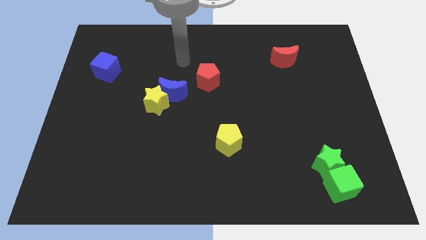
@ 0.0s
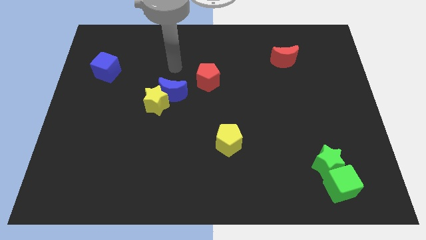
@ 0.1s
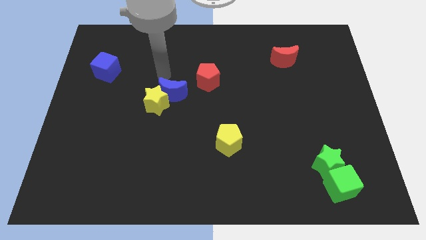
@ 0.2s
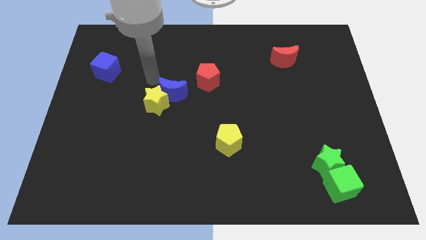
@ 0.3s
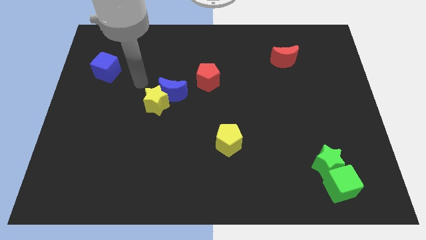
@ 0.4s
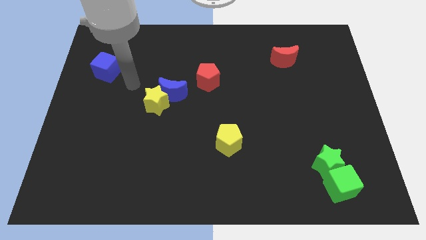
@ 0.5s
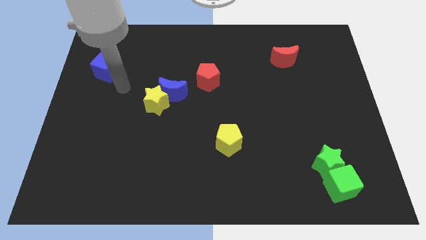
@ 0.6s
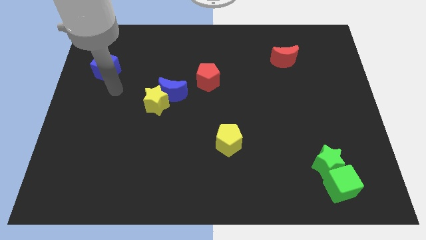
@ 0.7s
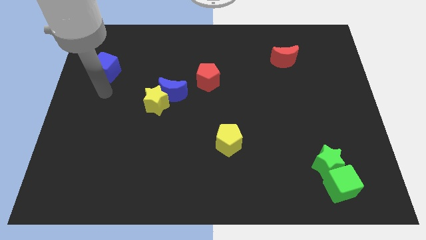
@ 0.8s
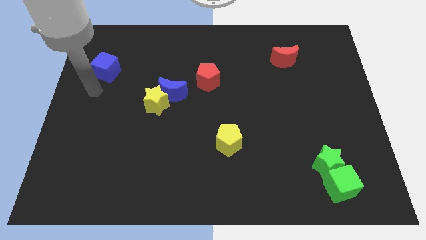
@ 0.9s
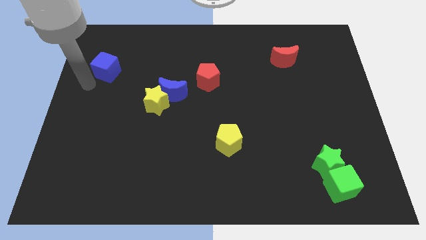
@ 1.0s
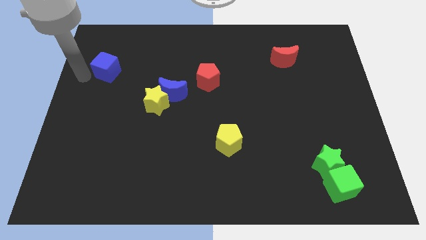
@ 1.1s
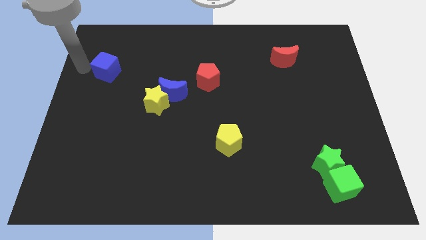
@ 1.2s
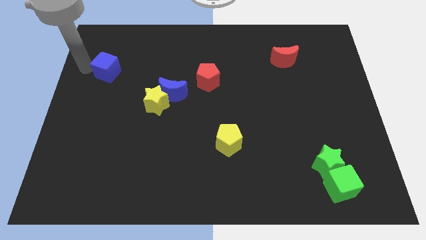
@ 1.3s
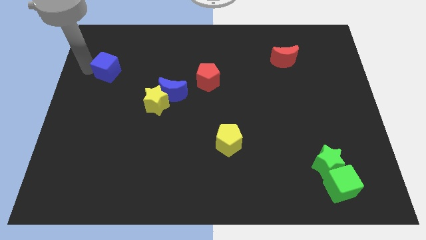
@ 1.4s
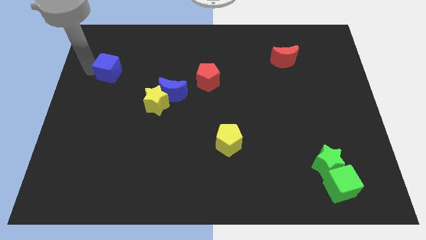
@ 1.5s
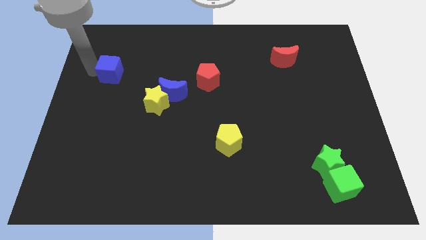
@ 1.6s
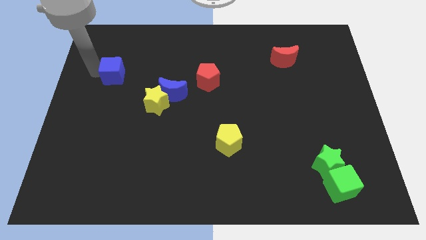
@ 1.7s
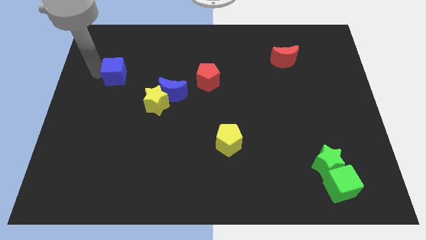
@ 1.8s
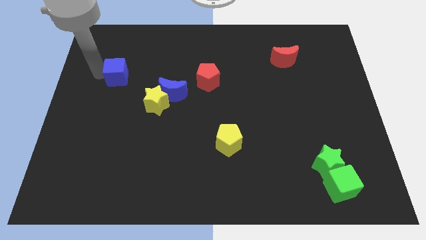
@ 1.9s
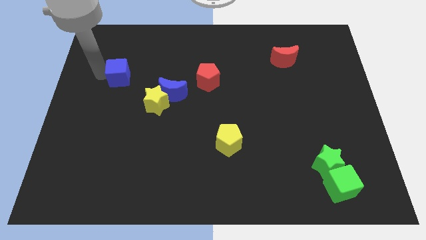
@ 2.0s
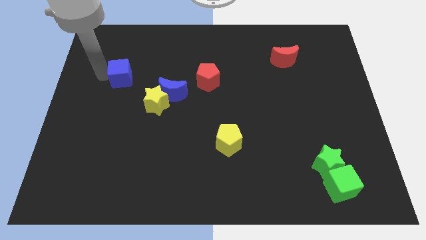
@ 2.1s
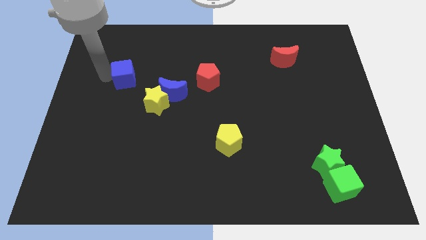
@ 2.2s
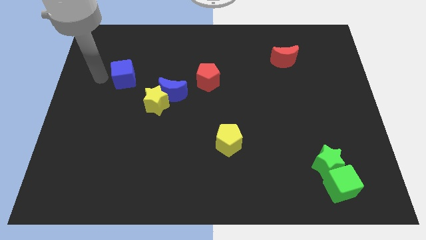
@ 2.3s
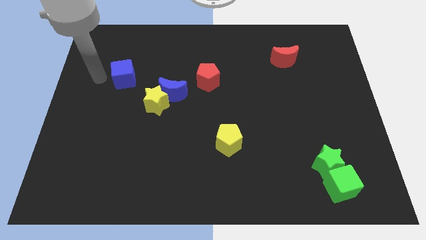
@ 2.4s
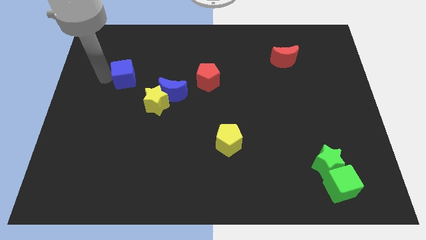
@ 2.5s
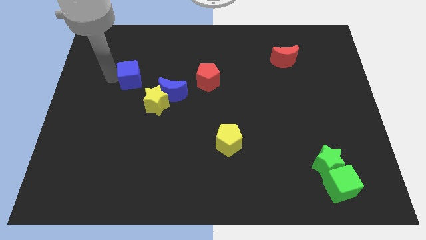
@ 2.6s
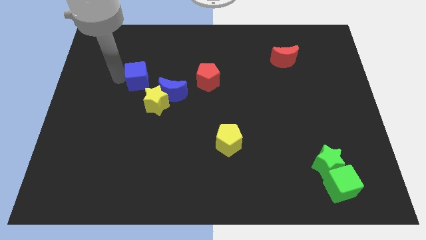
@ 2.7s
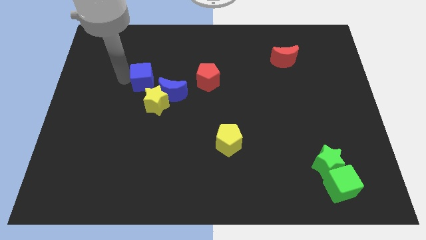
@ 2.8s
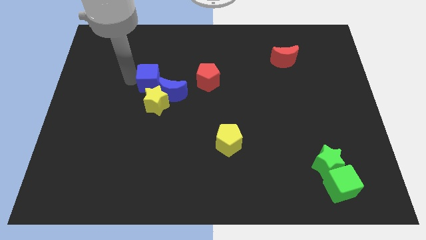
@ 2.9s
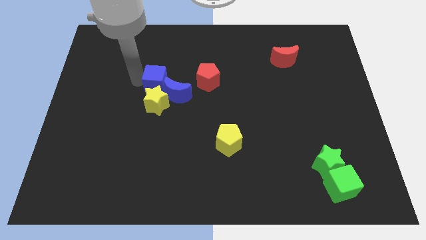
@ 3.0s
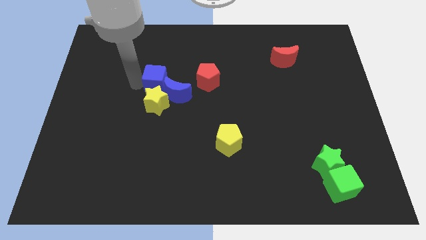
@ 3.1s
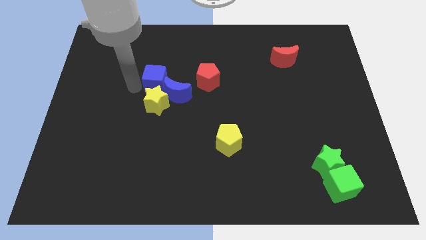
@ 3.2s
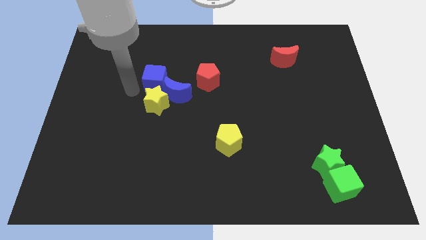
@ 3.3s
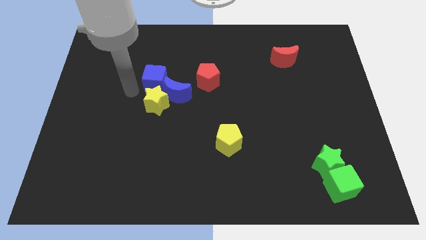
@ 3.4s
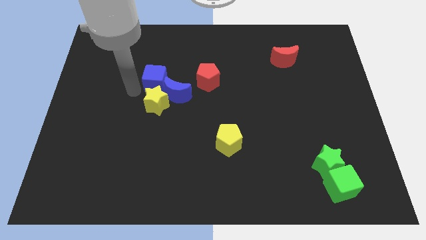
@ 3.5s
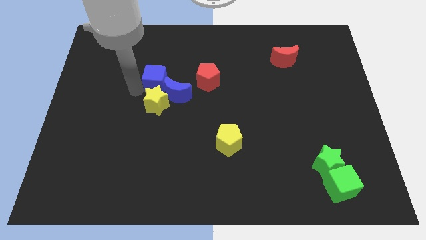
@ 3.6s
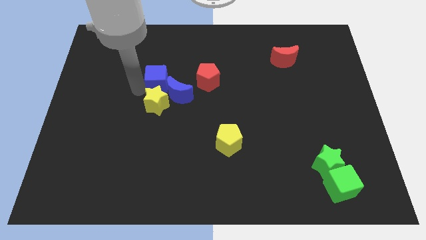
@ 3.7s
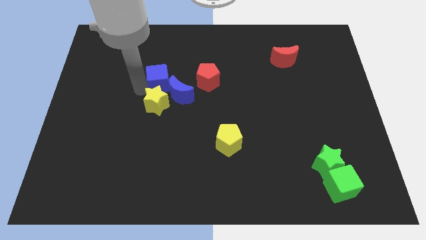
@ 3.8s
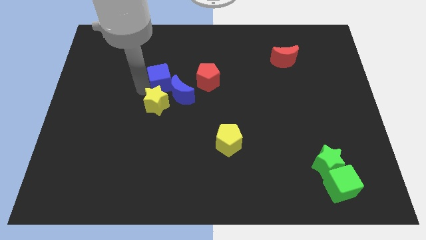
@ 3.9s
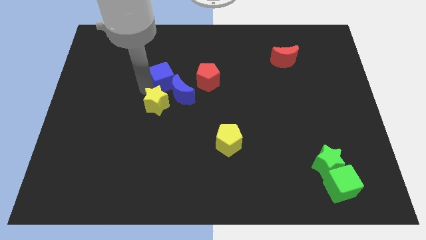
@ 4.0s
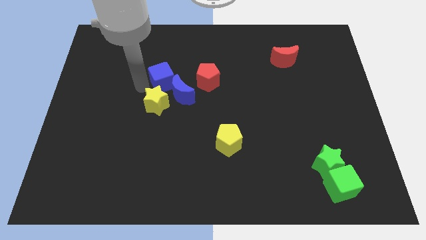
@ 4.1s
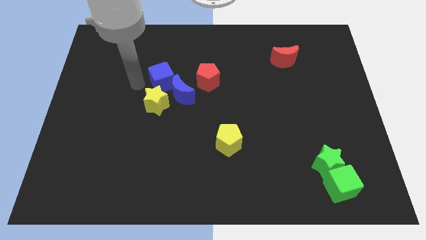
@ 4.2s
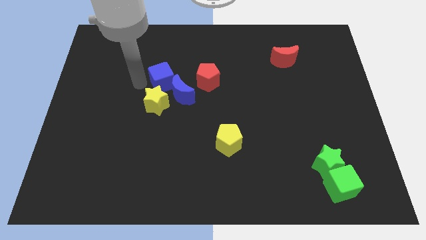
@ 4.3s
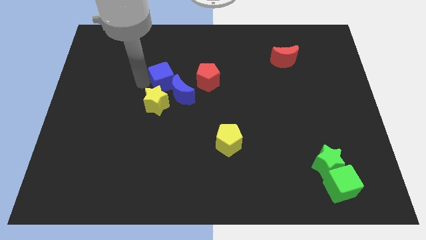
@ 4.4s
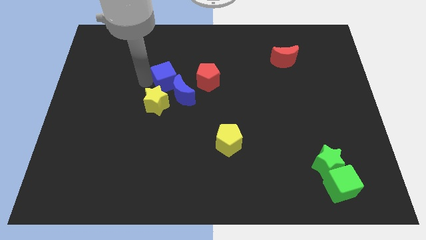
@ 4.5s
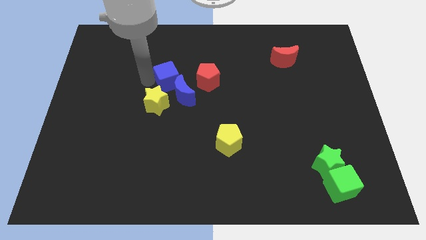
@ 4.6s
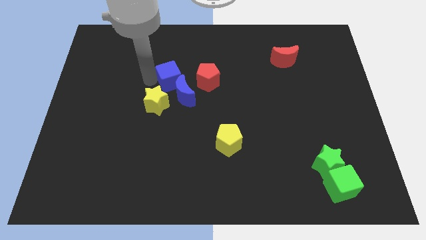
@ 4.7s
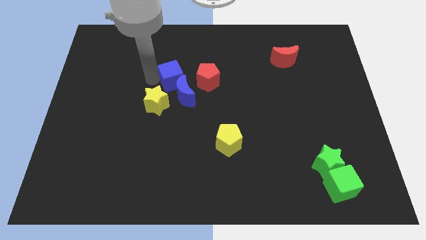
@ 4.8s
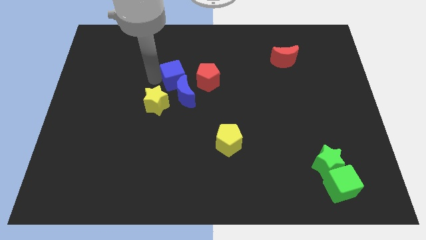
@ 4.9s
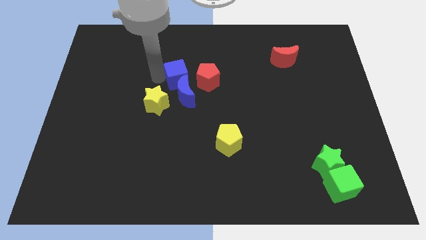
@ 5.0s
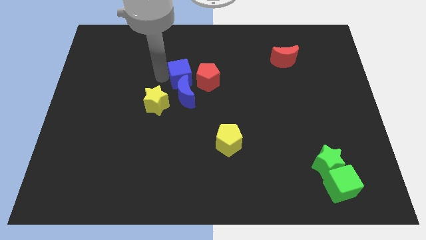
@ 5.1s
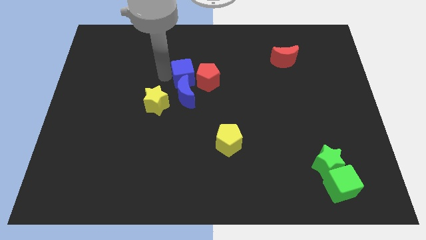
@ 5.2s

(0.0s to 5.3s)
push the blue cube towards the red pentagon

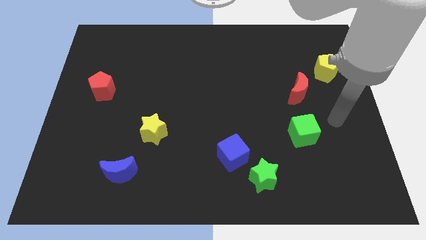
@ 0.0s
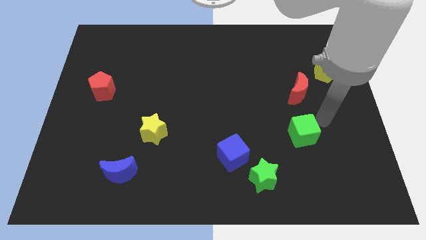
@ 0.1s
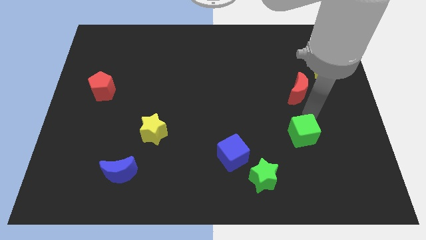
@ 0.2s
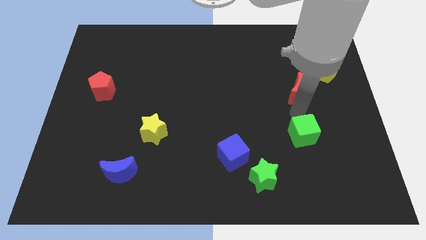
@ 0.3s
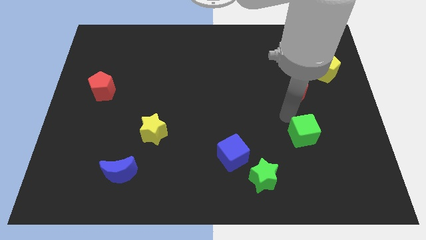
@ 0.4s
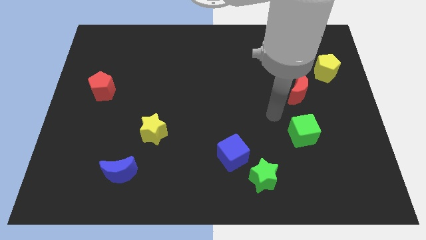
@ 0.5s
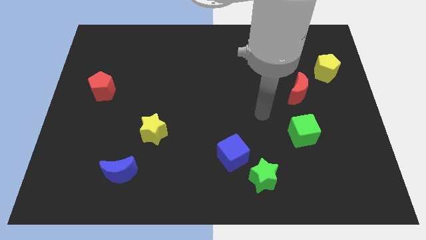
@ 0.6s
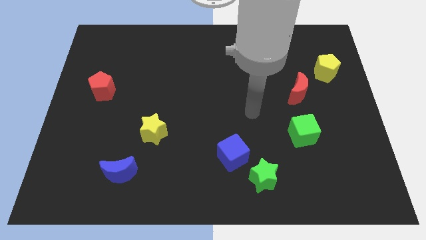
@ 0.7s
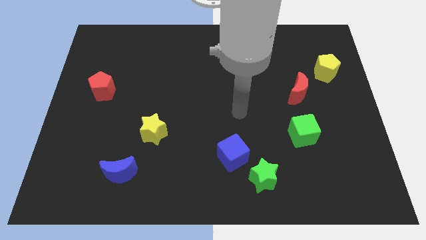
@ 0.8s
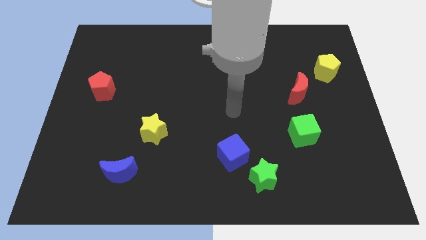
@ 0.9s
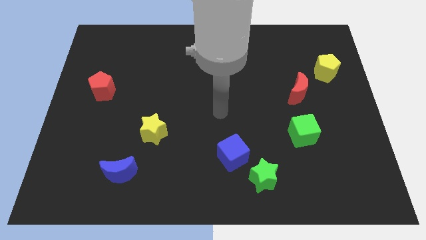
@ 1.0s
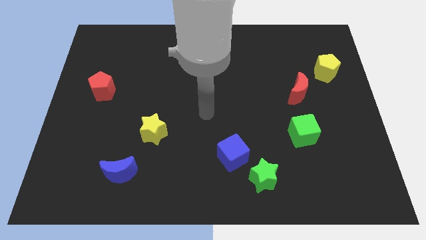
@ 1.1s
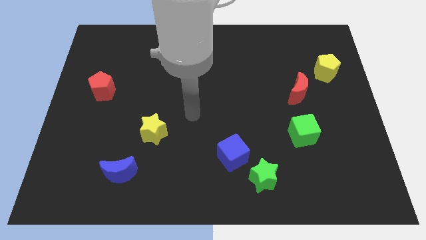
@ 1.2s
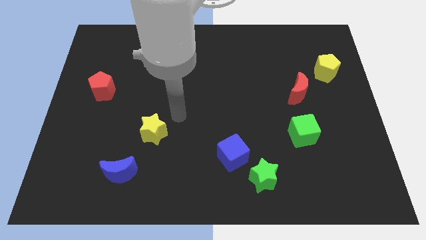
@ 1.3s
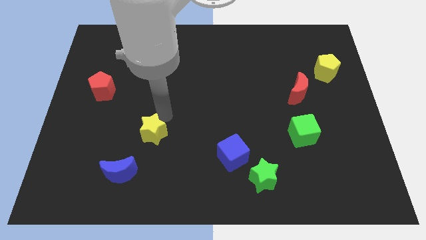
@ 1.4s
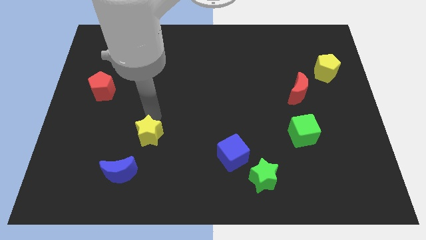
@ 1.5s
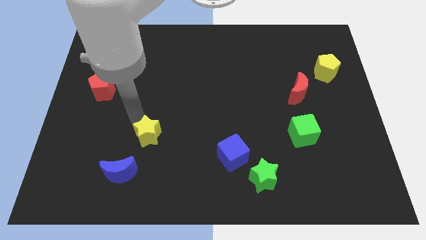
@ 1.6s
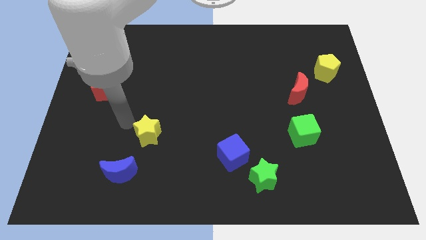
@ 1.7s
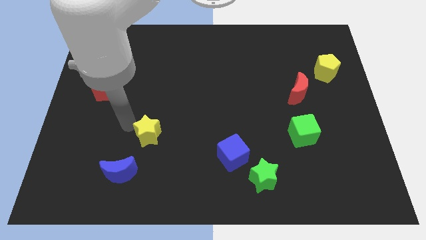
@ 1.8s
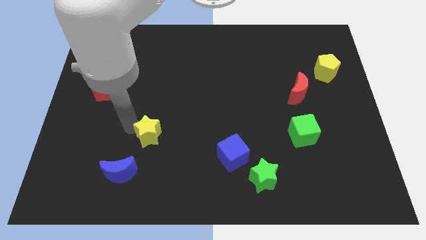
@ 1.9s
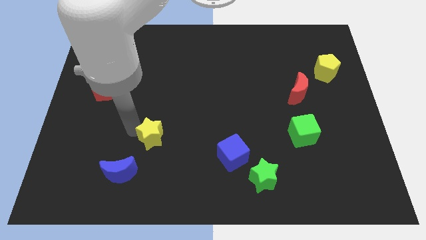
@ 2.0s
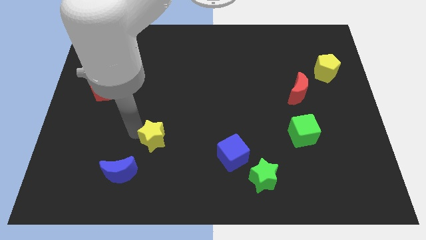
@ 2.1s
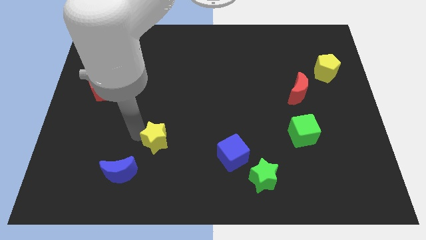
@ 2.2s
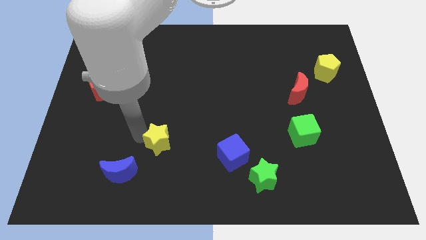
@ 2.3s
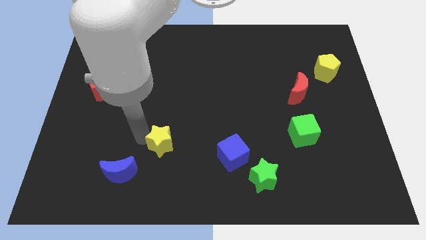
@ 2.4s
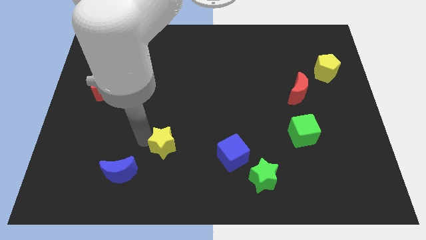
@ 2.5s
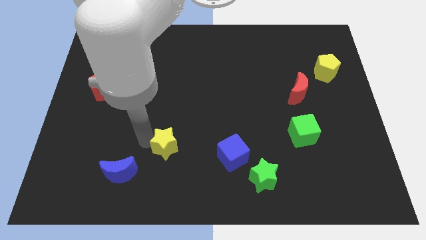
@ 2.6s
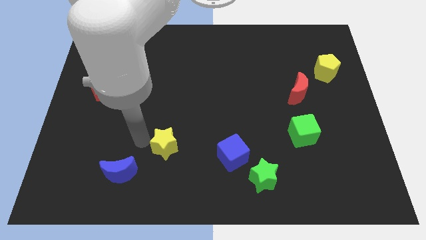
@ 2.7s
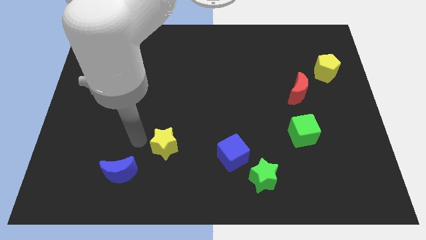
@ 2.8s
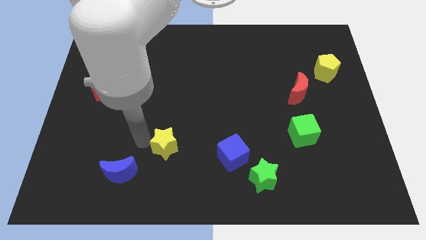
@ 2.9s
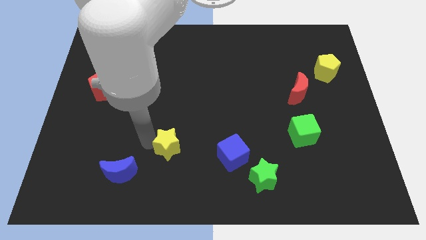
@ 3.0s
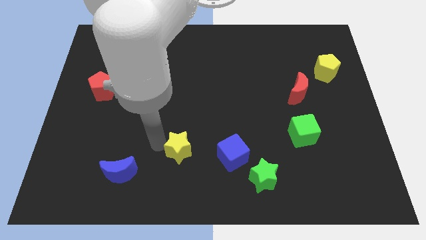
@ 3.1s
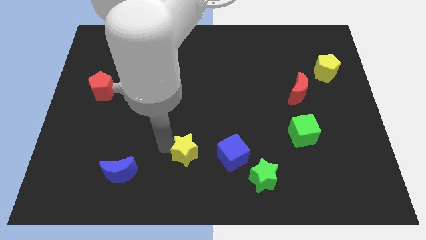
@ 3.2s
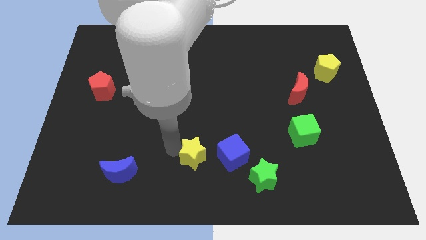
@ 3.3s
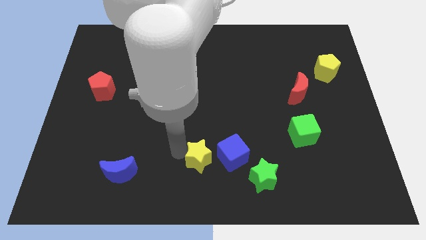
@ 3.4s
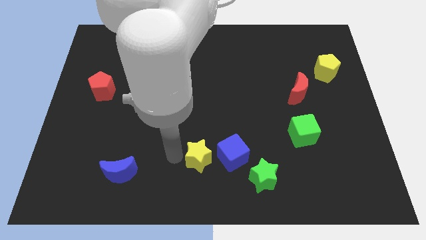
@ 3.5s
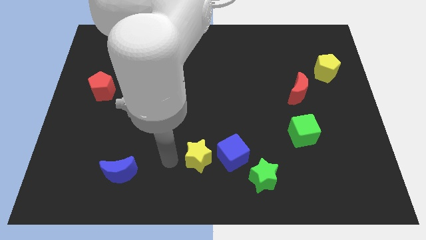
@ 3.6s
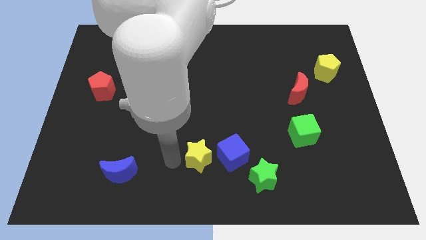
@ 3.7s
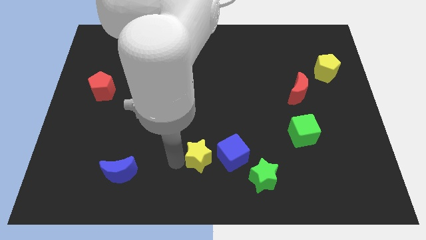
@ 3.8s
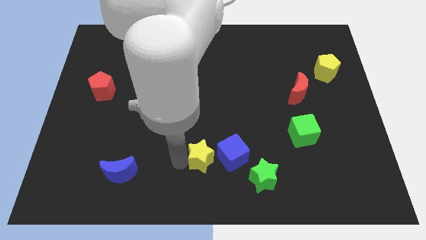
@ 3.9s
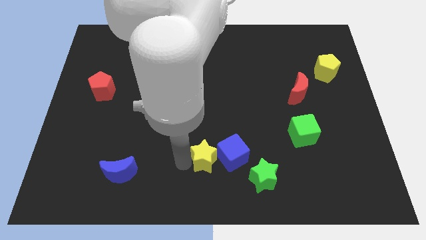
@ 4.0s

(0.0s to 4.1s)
put the yellow star close to the blue cube
